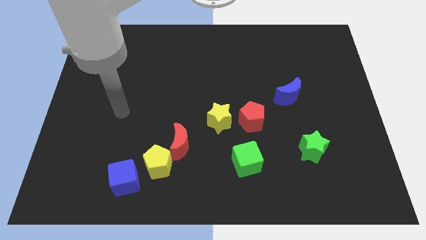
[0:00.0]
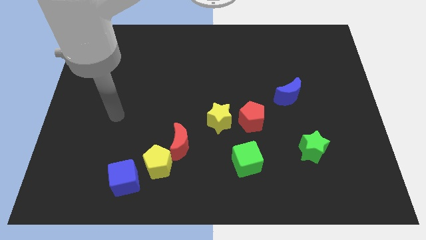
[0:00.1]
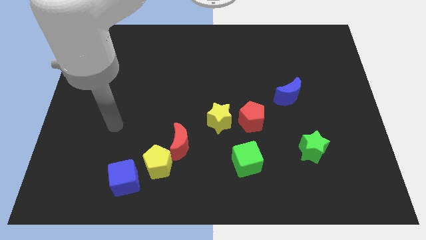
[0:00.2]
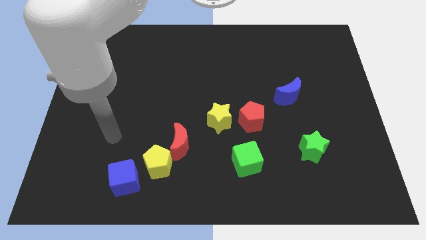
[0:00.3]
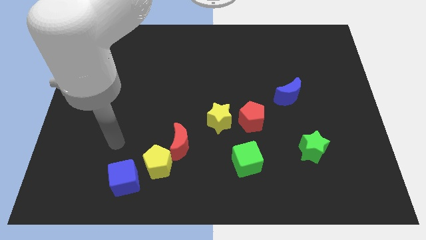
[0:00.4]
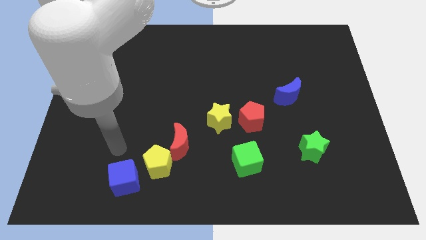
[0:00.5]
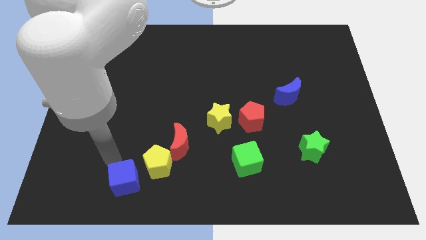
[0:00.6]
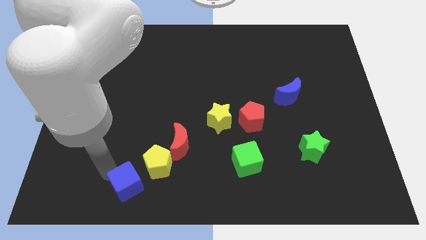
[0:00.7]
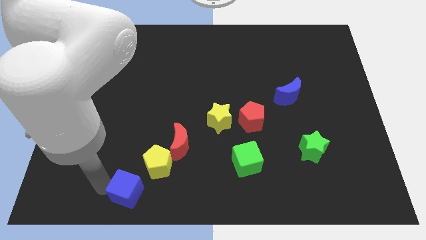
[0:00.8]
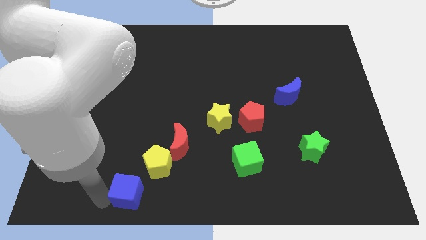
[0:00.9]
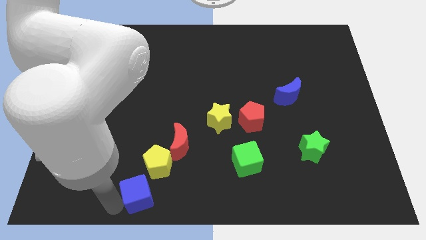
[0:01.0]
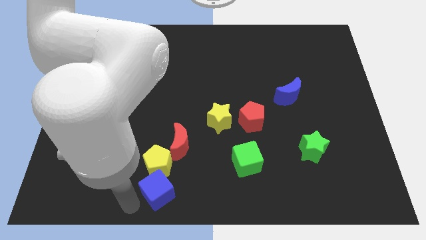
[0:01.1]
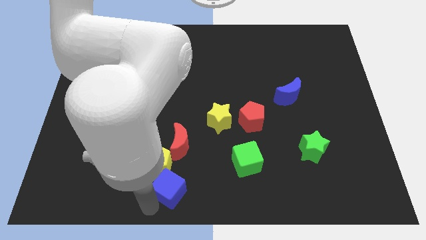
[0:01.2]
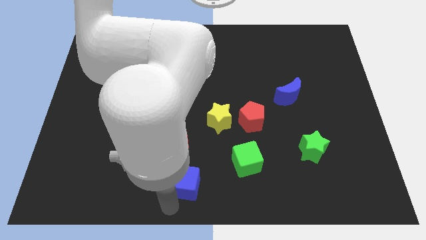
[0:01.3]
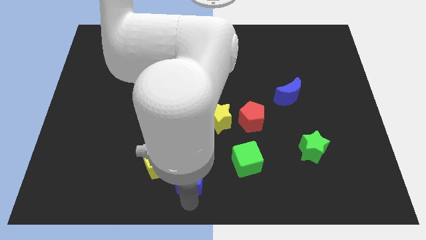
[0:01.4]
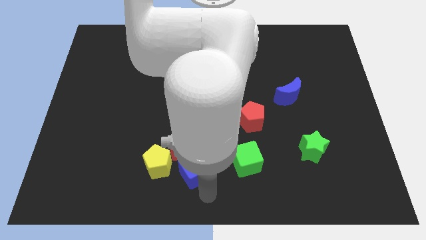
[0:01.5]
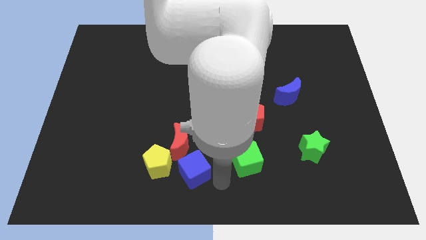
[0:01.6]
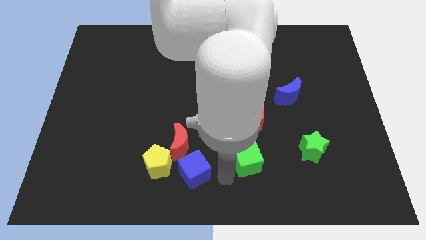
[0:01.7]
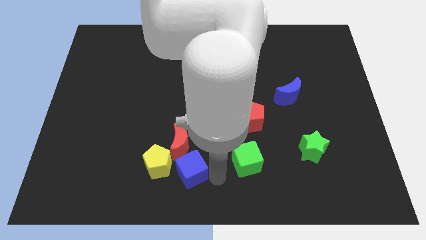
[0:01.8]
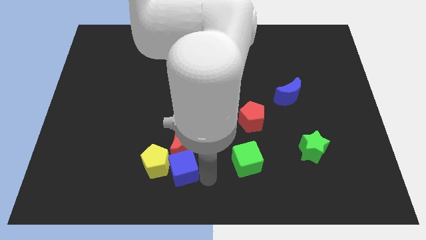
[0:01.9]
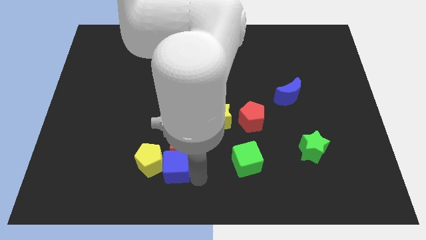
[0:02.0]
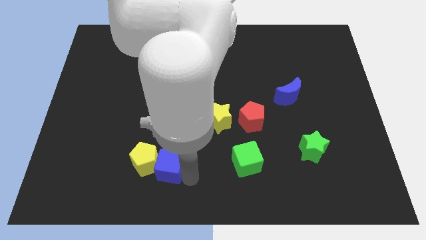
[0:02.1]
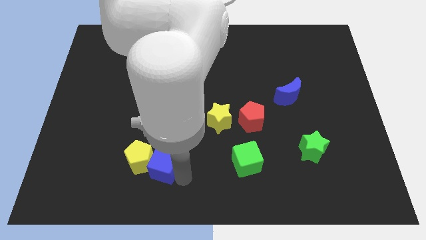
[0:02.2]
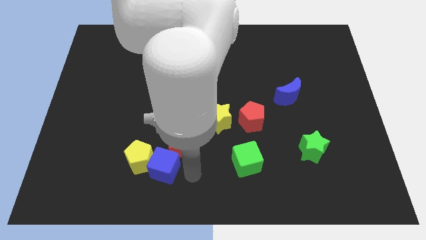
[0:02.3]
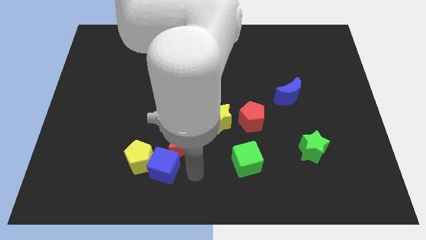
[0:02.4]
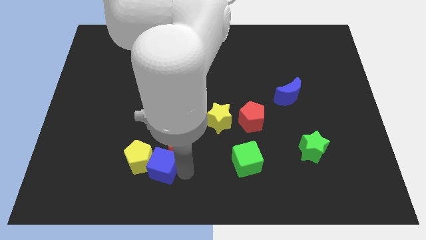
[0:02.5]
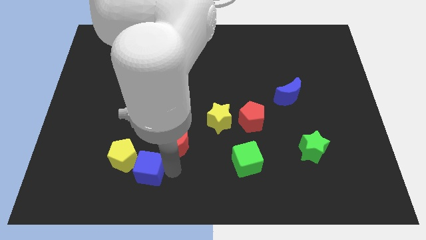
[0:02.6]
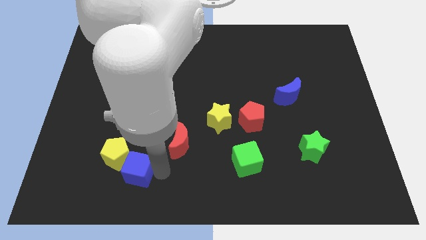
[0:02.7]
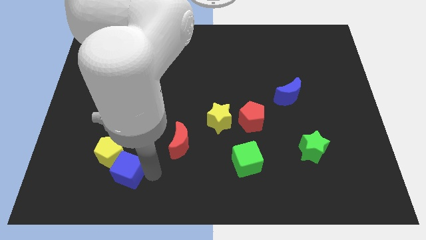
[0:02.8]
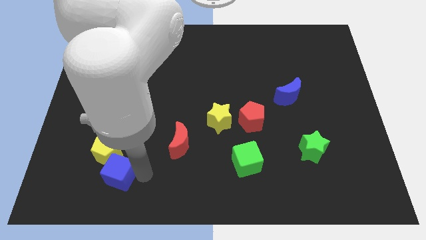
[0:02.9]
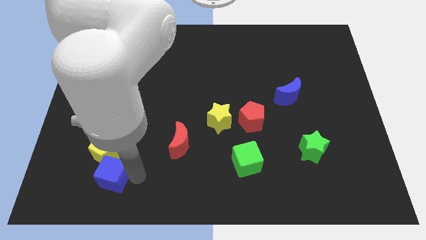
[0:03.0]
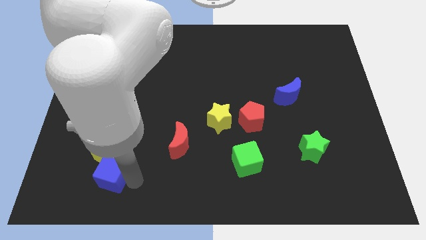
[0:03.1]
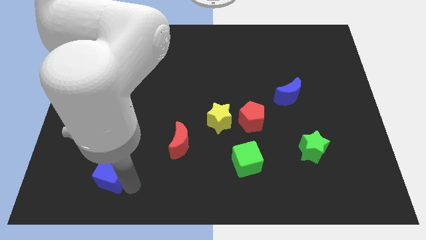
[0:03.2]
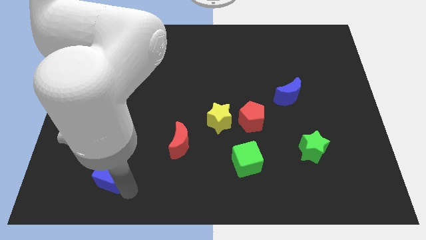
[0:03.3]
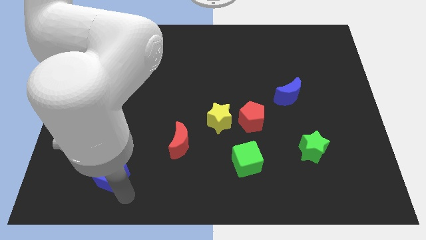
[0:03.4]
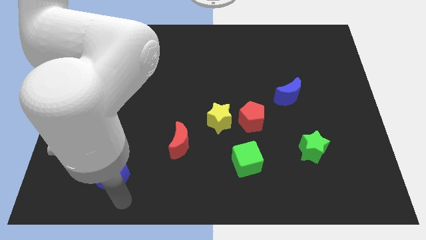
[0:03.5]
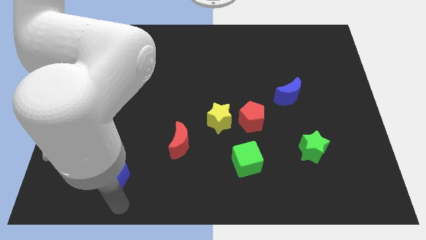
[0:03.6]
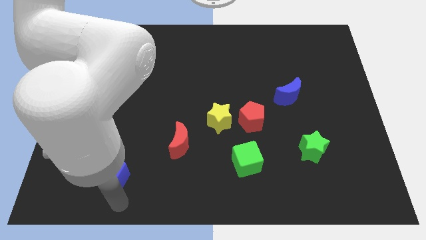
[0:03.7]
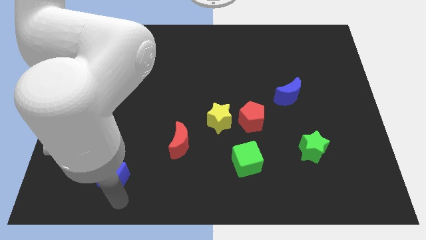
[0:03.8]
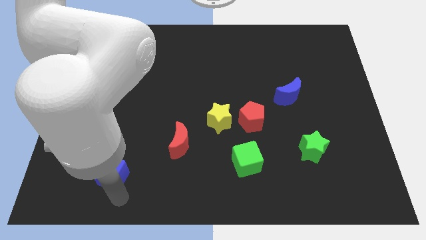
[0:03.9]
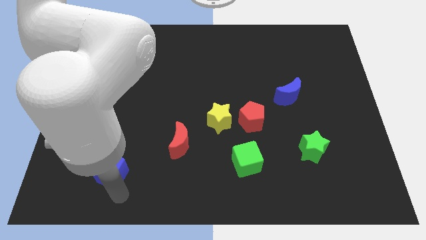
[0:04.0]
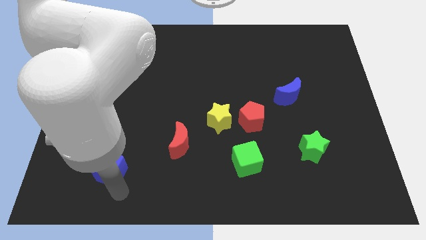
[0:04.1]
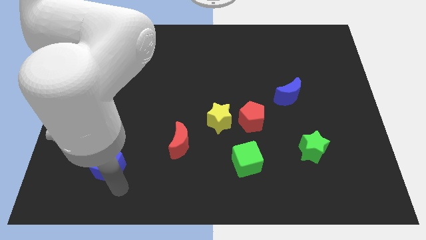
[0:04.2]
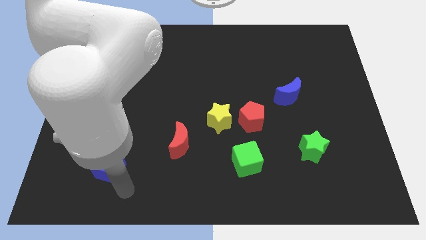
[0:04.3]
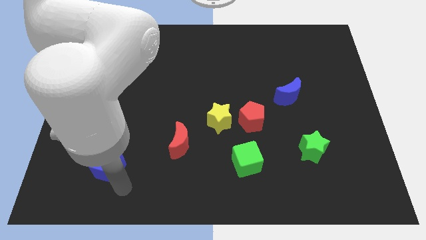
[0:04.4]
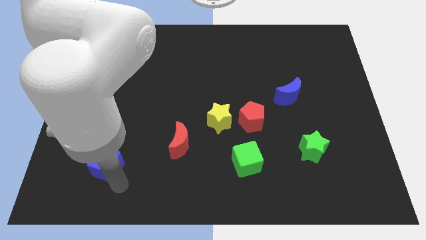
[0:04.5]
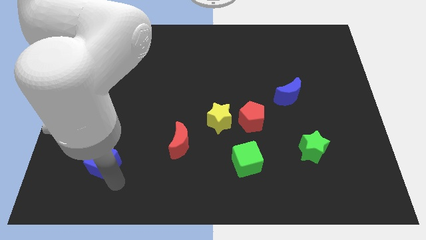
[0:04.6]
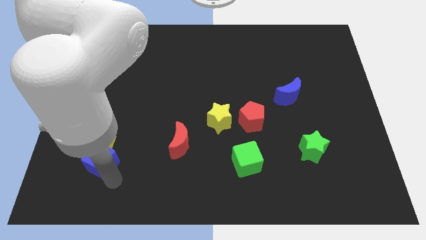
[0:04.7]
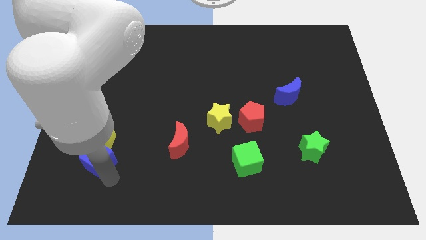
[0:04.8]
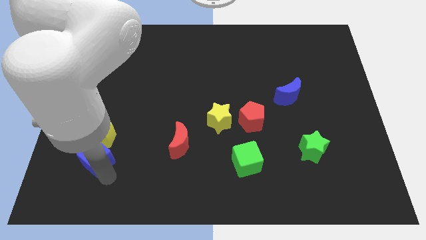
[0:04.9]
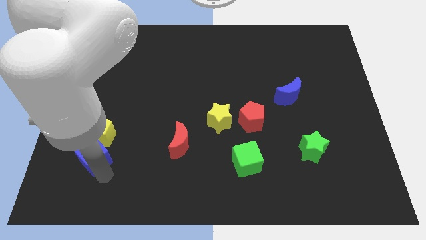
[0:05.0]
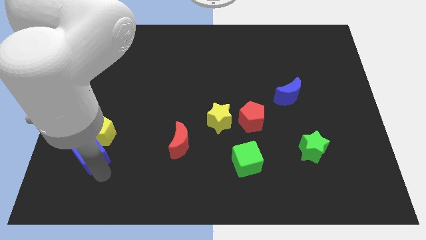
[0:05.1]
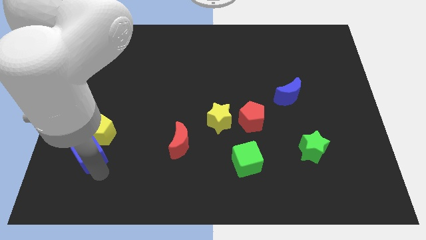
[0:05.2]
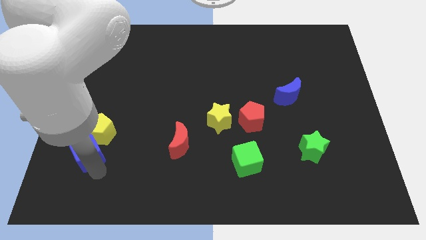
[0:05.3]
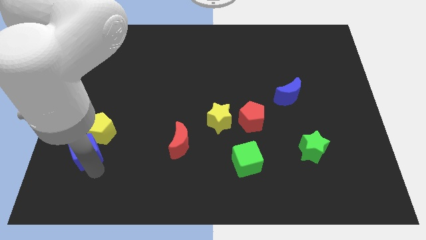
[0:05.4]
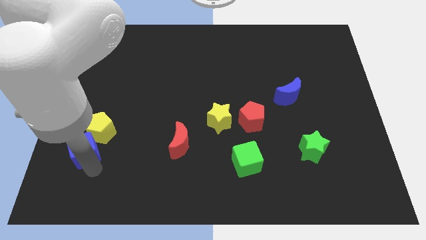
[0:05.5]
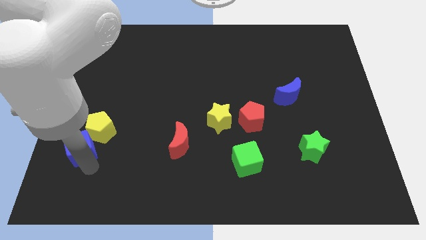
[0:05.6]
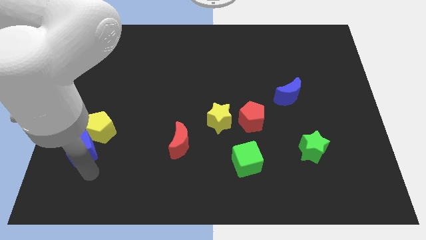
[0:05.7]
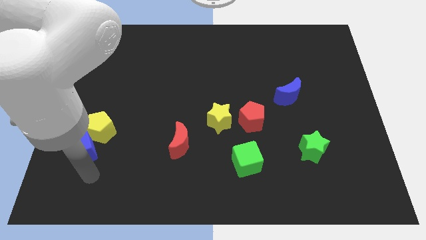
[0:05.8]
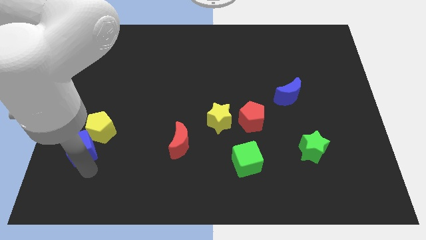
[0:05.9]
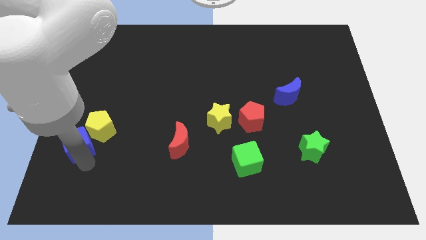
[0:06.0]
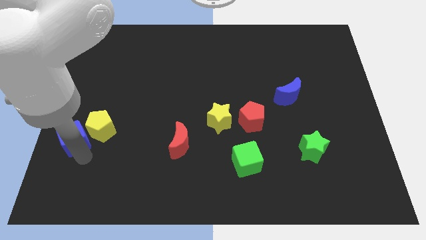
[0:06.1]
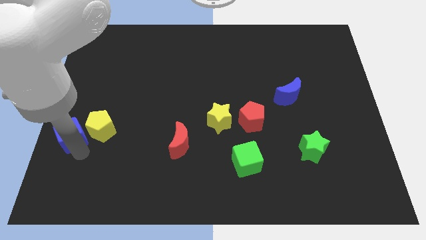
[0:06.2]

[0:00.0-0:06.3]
push the blue cube to the center left
